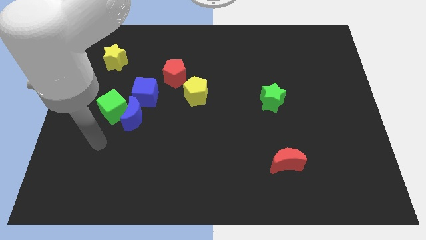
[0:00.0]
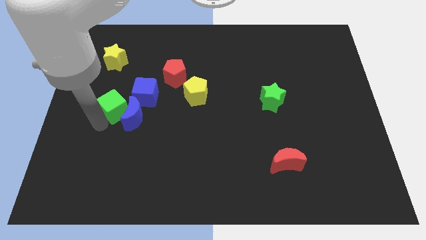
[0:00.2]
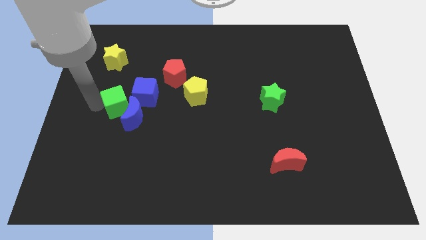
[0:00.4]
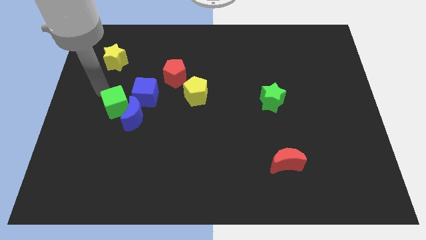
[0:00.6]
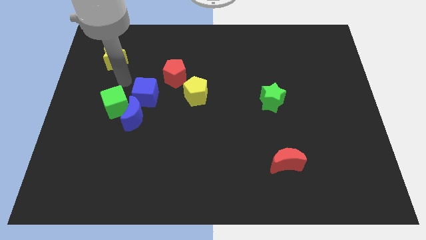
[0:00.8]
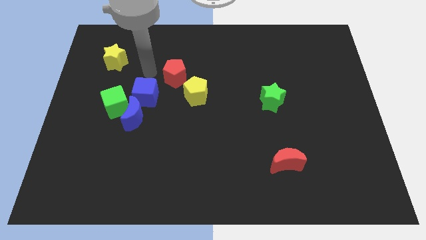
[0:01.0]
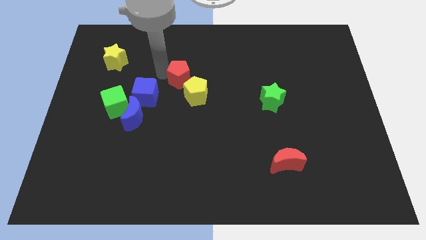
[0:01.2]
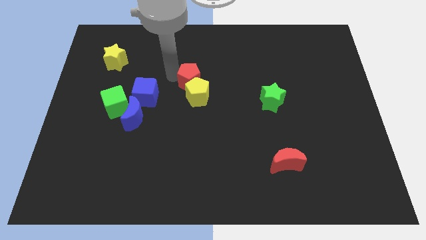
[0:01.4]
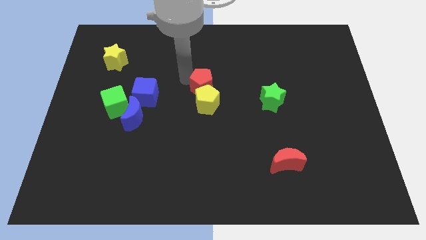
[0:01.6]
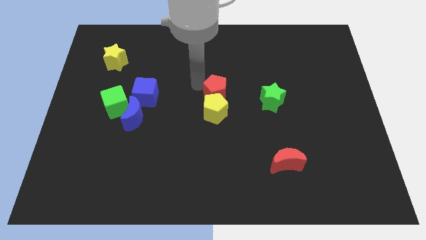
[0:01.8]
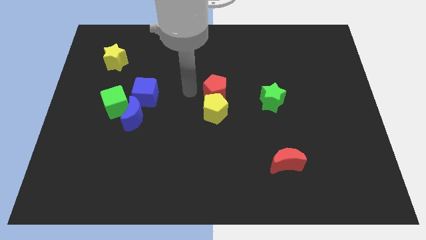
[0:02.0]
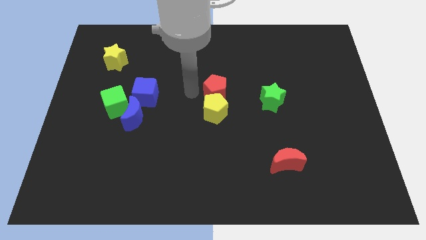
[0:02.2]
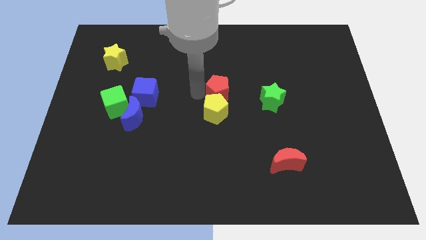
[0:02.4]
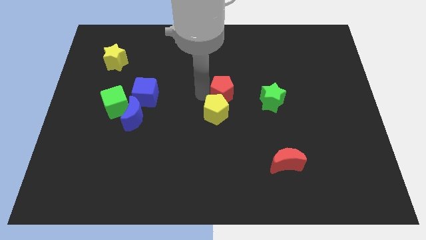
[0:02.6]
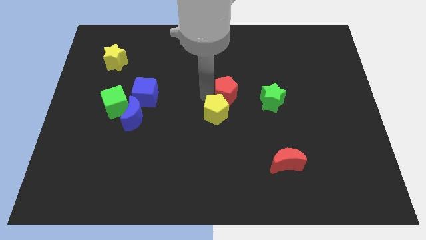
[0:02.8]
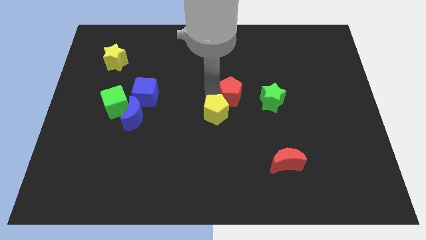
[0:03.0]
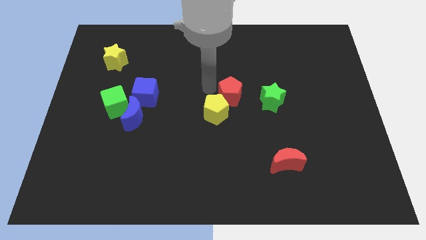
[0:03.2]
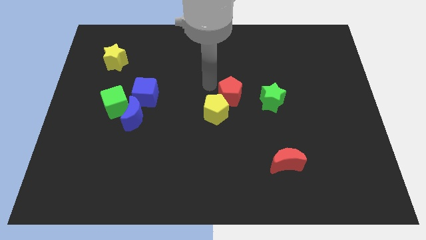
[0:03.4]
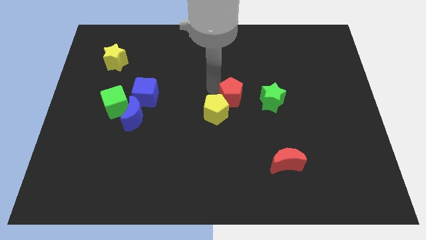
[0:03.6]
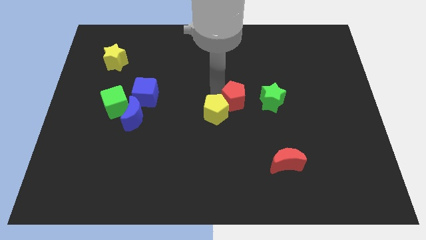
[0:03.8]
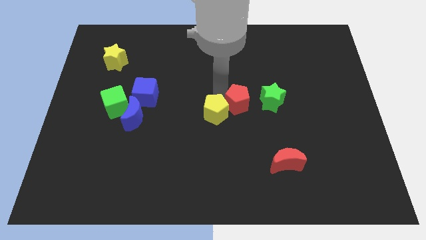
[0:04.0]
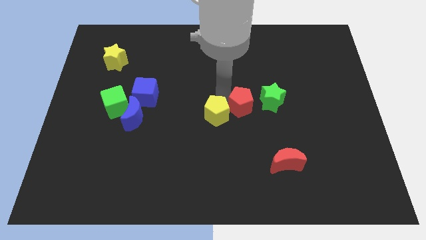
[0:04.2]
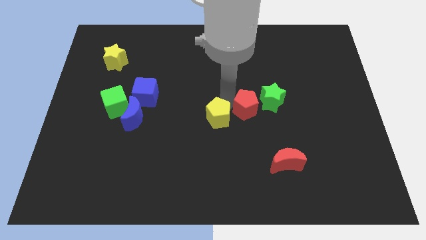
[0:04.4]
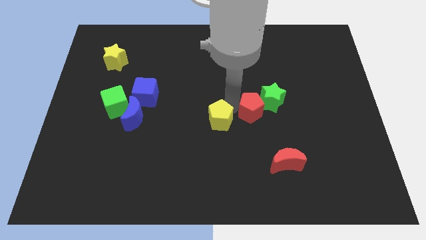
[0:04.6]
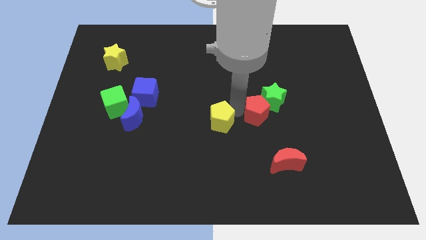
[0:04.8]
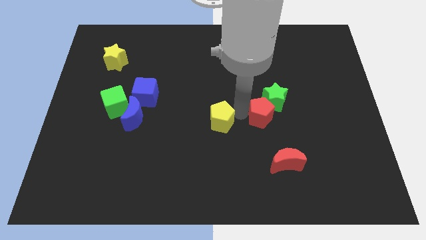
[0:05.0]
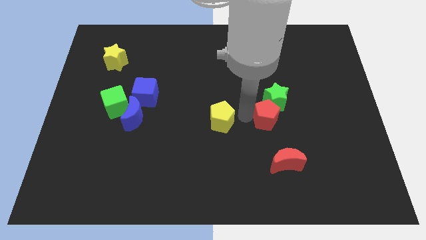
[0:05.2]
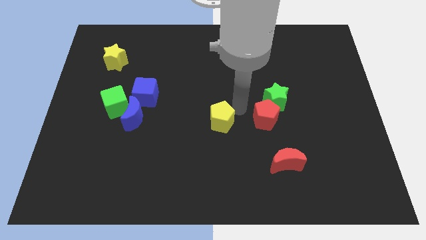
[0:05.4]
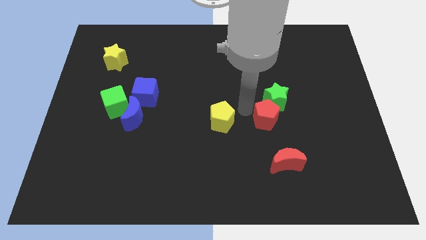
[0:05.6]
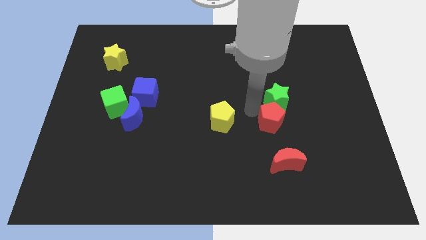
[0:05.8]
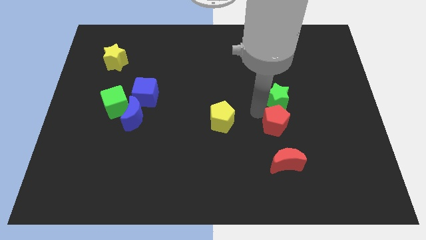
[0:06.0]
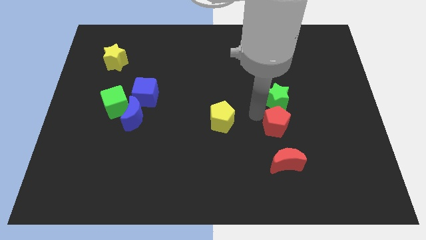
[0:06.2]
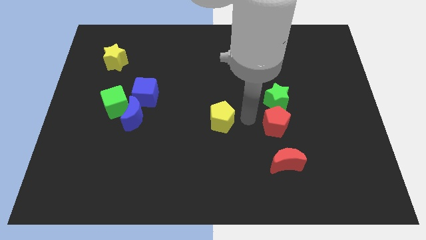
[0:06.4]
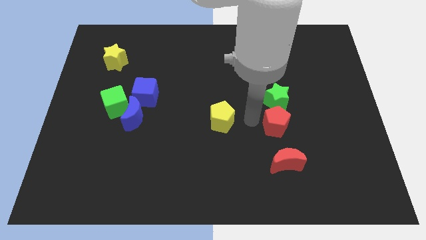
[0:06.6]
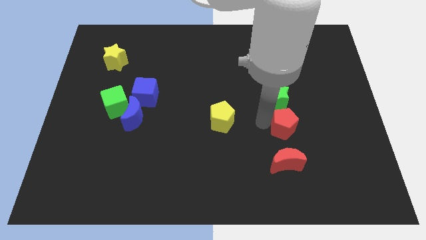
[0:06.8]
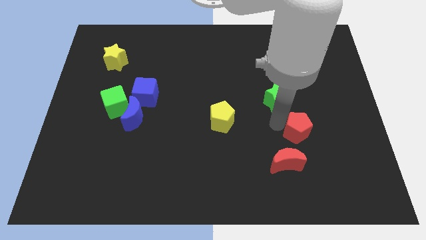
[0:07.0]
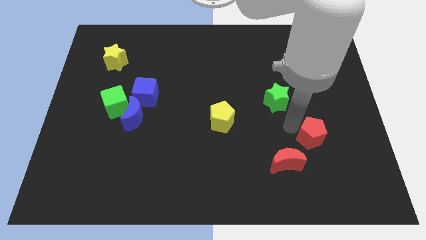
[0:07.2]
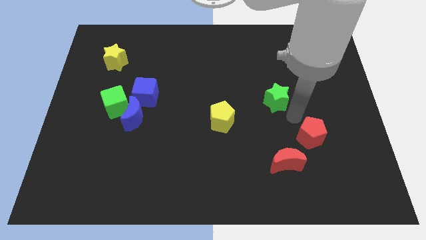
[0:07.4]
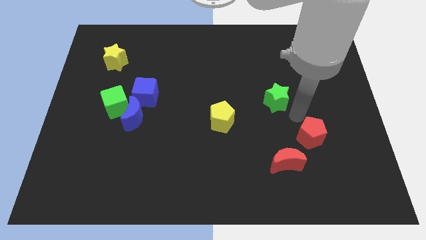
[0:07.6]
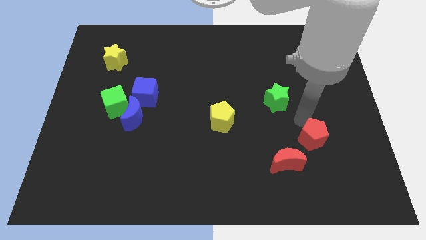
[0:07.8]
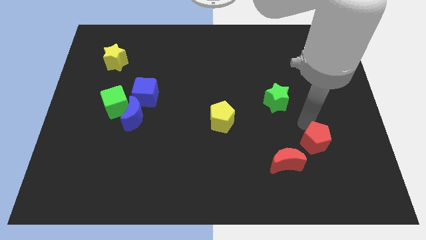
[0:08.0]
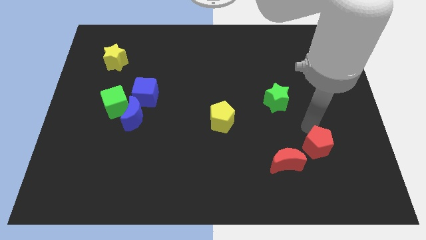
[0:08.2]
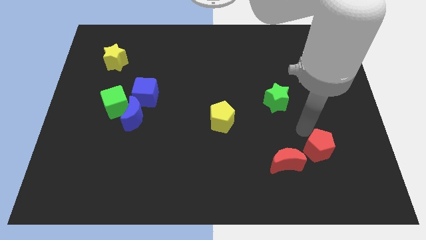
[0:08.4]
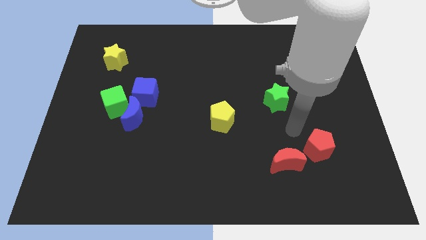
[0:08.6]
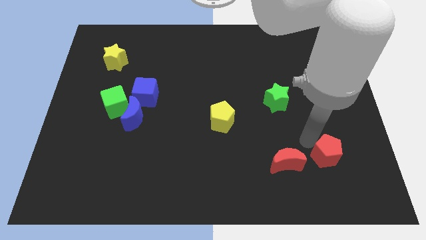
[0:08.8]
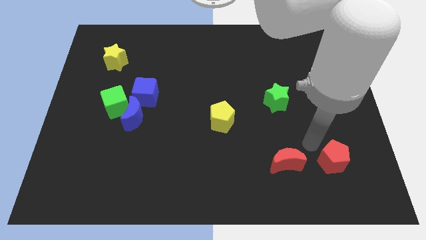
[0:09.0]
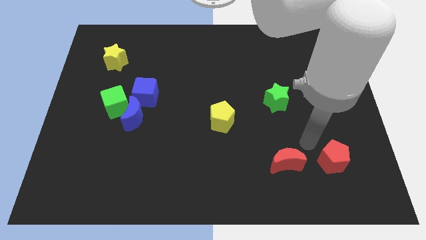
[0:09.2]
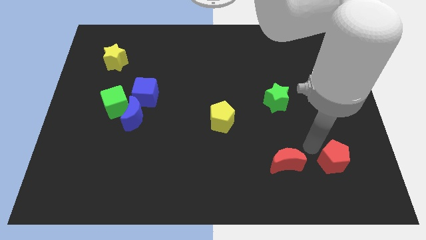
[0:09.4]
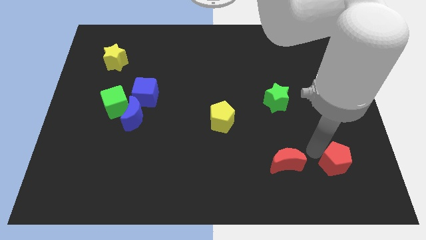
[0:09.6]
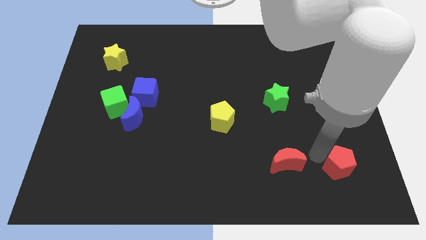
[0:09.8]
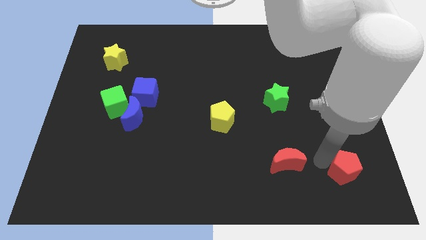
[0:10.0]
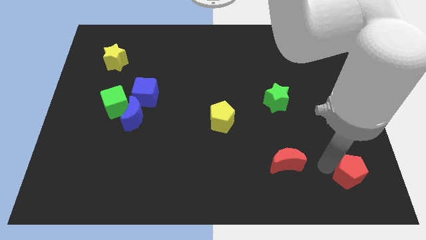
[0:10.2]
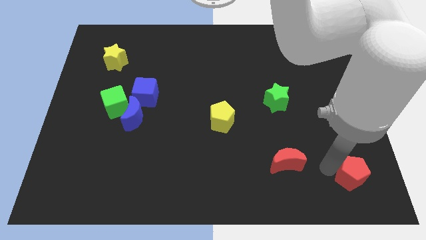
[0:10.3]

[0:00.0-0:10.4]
move the red pentagon to the lower right corner

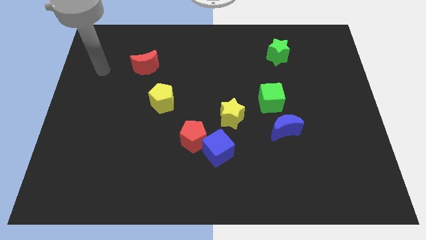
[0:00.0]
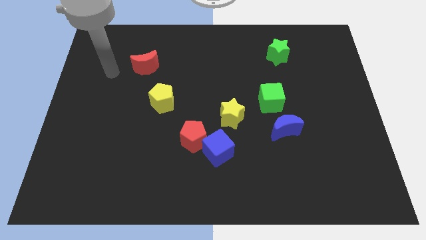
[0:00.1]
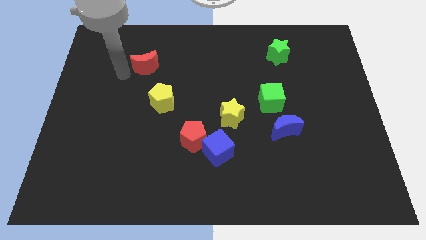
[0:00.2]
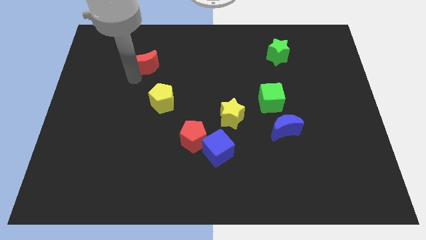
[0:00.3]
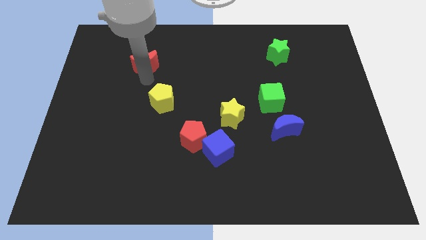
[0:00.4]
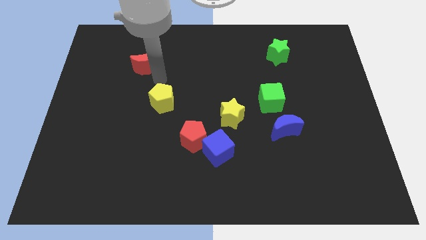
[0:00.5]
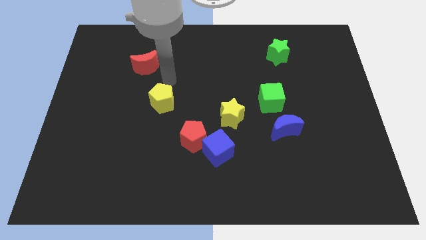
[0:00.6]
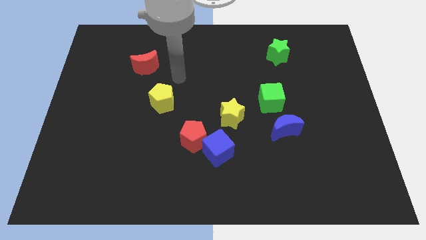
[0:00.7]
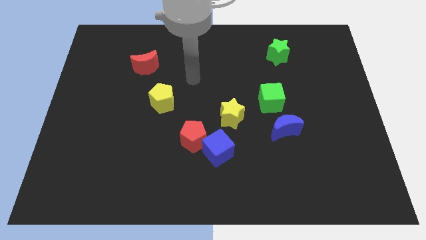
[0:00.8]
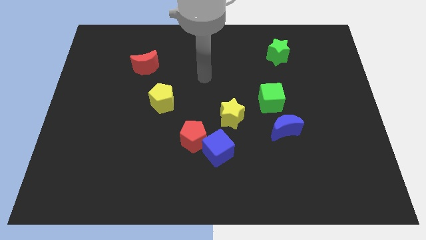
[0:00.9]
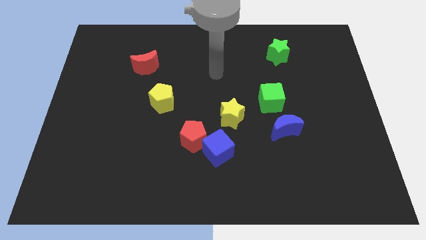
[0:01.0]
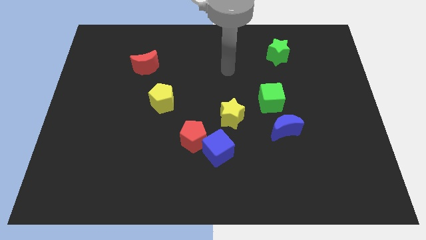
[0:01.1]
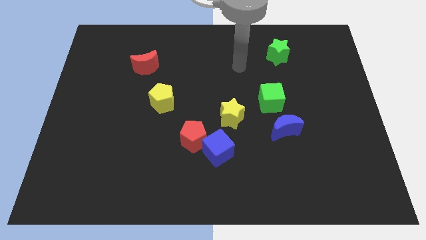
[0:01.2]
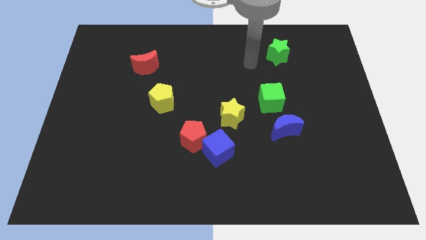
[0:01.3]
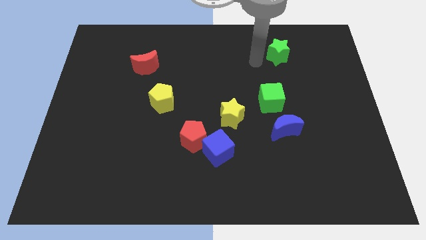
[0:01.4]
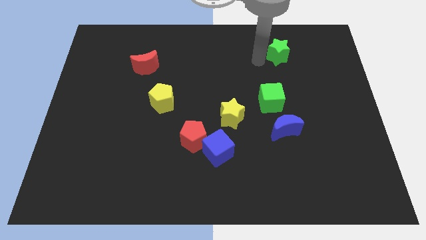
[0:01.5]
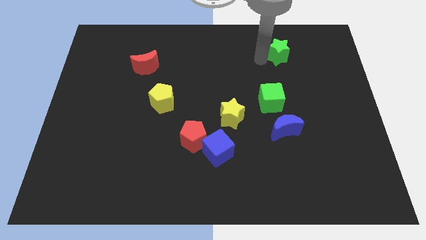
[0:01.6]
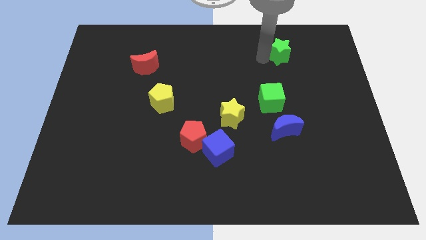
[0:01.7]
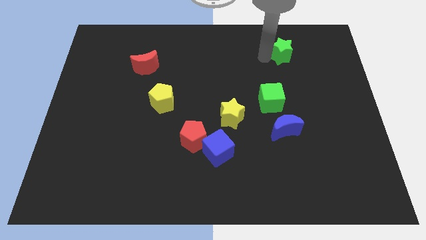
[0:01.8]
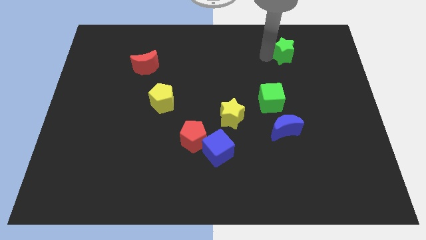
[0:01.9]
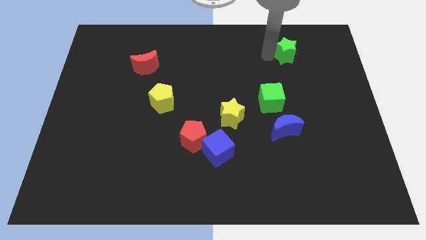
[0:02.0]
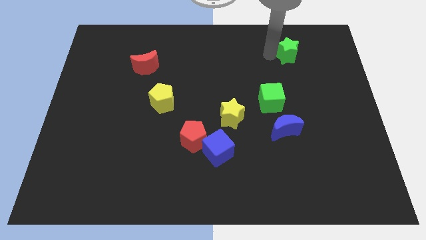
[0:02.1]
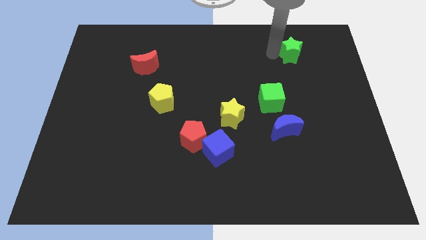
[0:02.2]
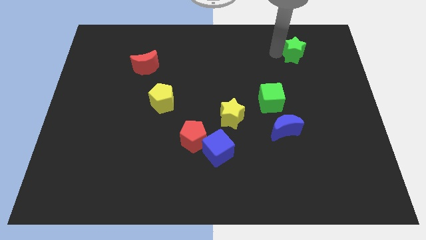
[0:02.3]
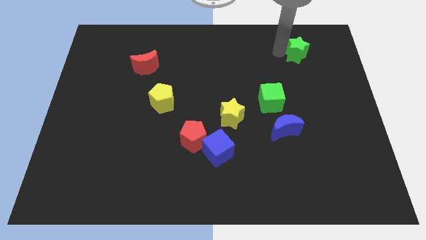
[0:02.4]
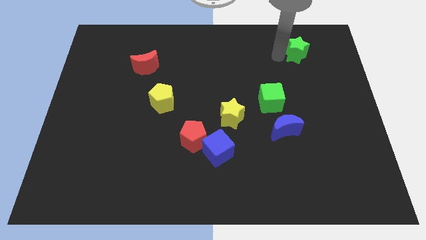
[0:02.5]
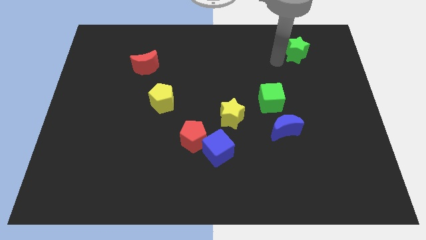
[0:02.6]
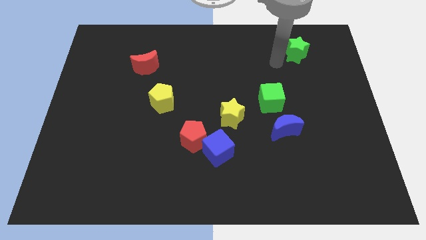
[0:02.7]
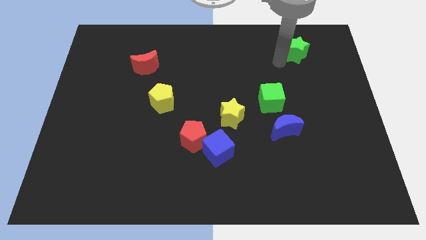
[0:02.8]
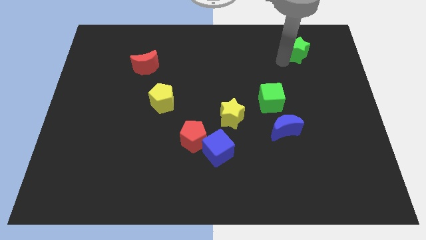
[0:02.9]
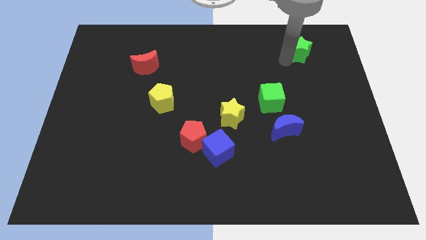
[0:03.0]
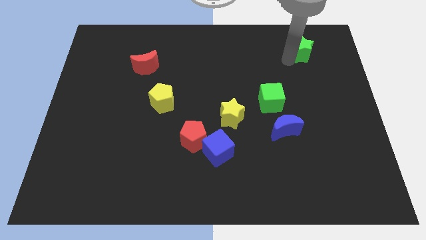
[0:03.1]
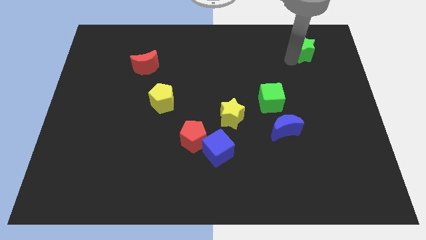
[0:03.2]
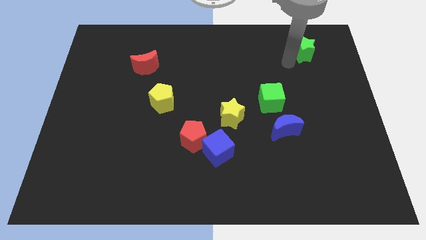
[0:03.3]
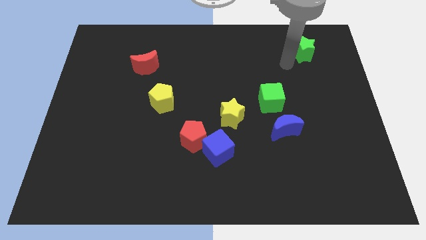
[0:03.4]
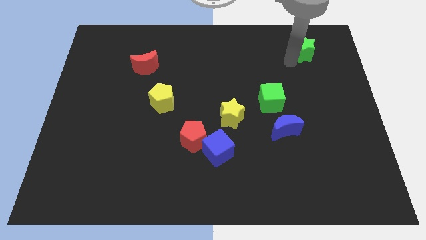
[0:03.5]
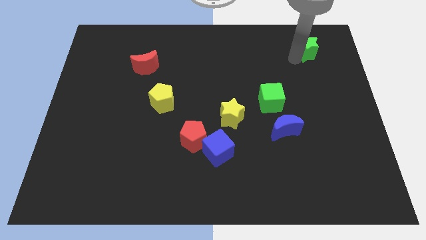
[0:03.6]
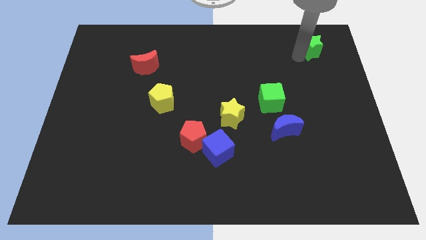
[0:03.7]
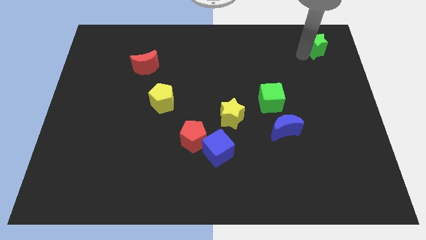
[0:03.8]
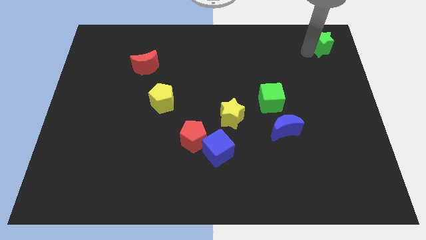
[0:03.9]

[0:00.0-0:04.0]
push the green star to the top right corner
